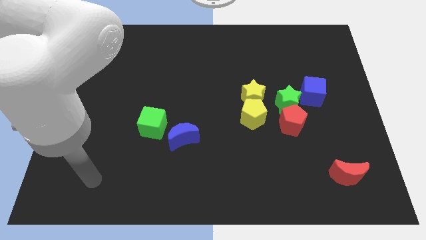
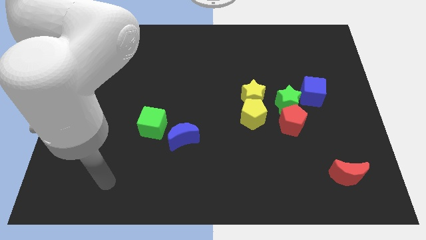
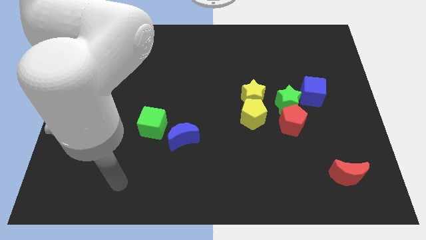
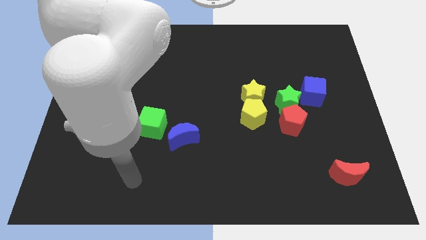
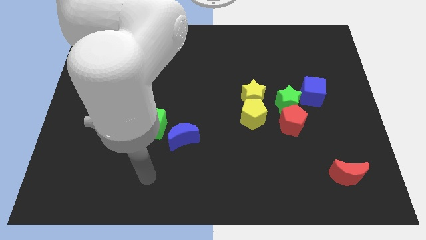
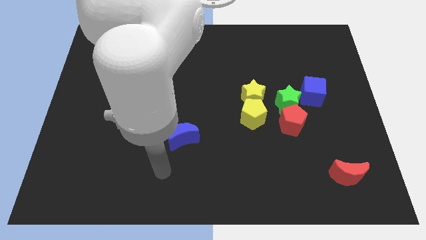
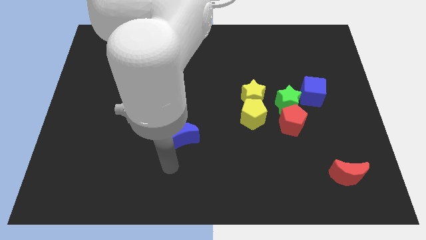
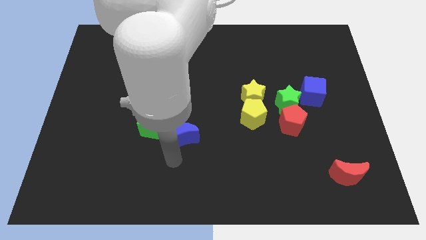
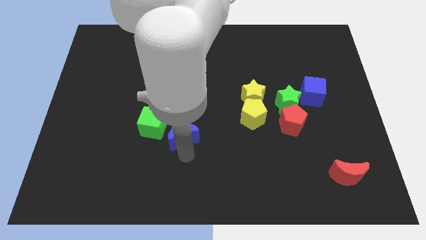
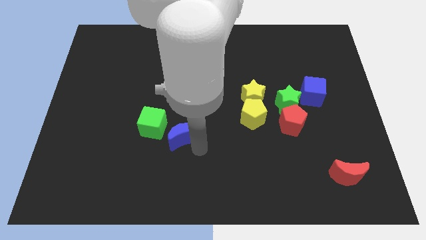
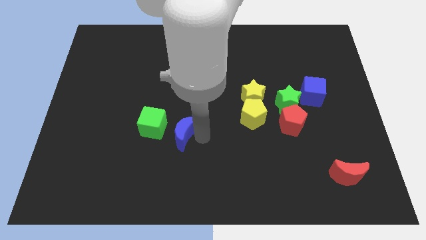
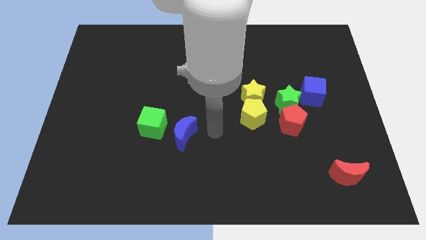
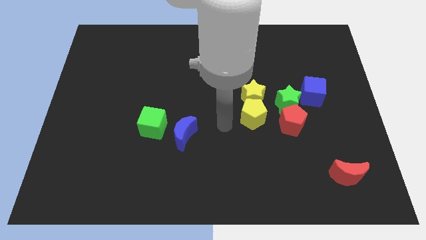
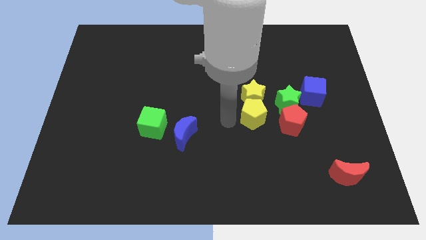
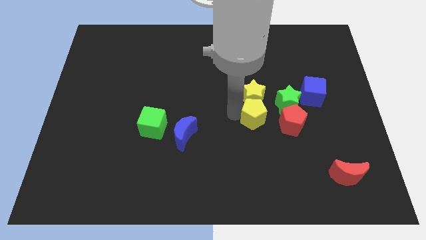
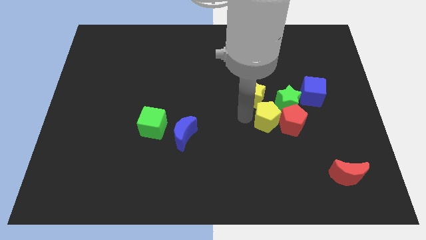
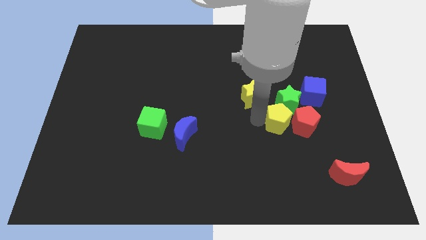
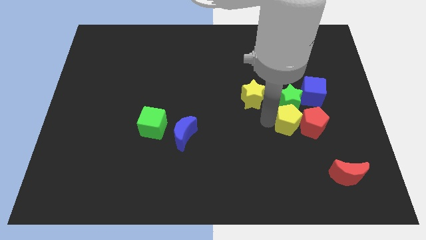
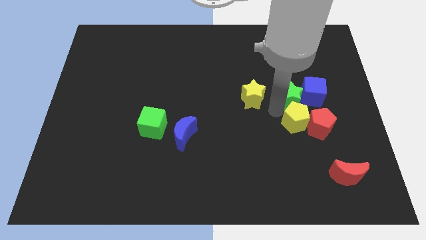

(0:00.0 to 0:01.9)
move the yellow star away from the yellow pentagon and green star

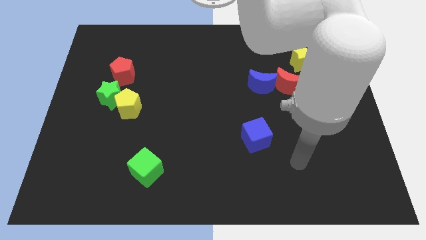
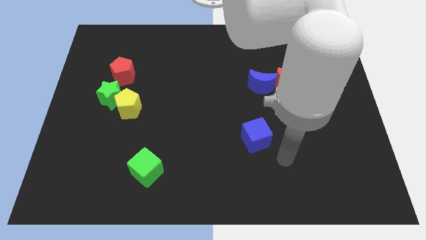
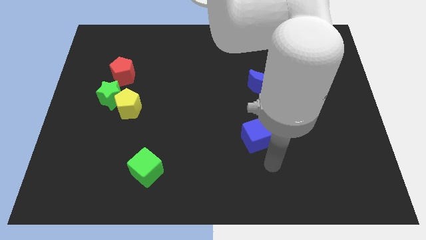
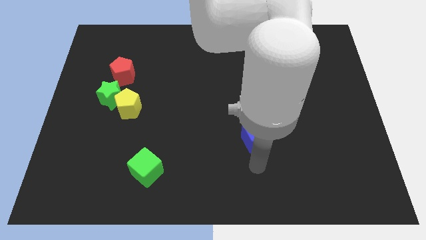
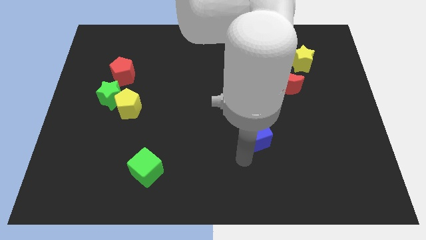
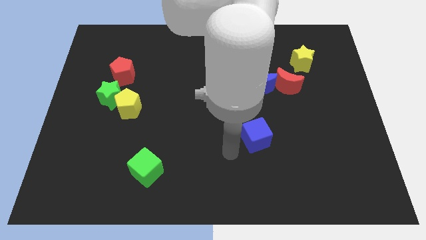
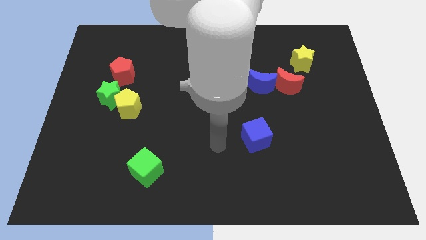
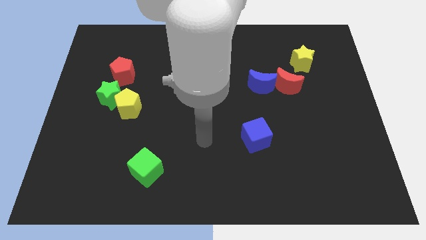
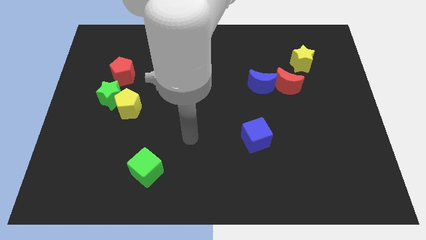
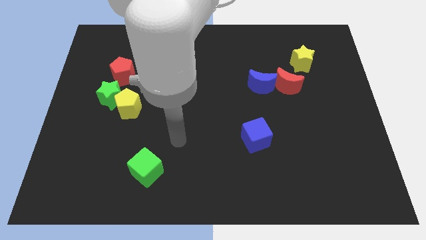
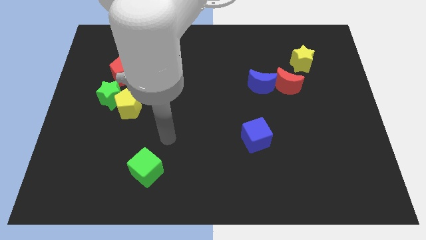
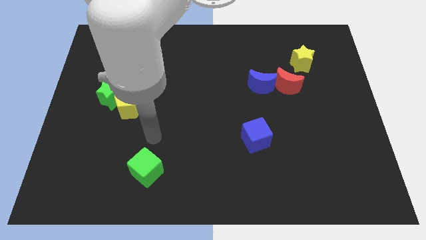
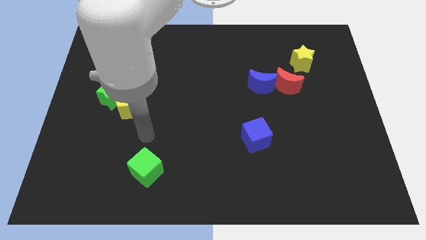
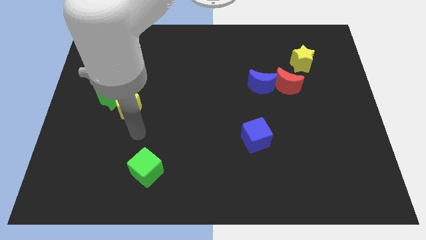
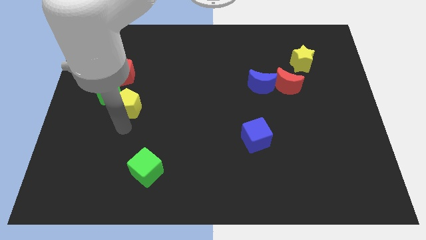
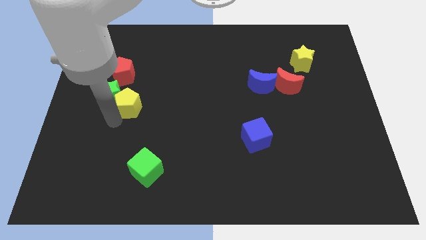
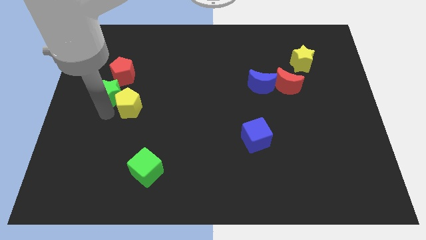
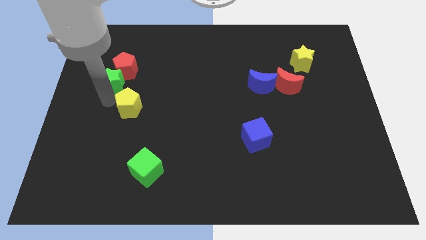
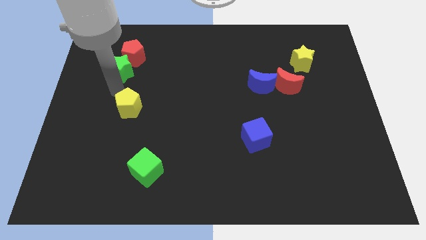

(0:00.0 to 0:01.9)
separate the yellow pentagon from the green star

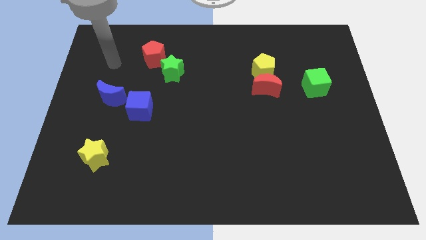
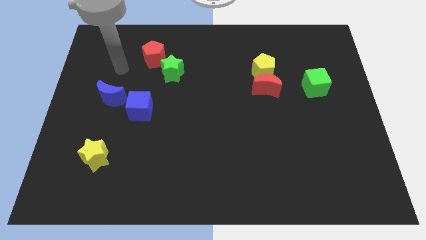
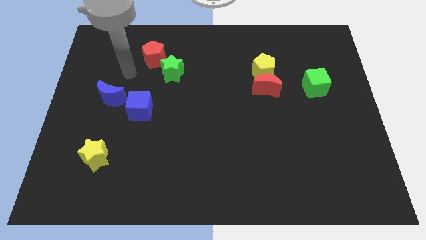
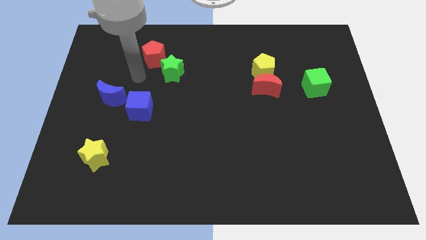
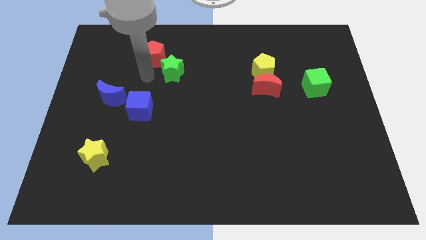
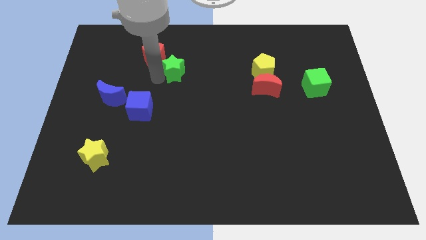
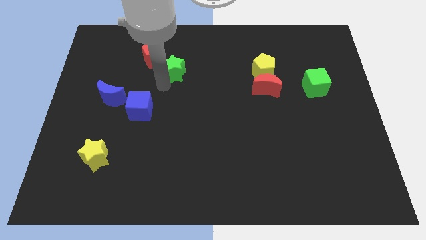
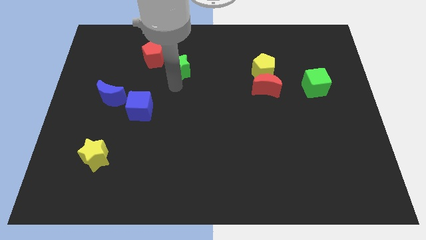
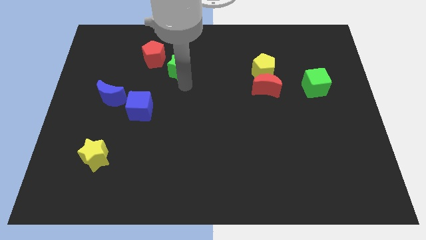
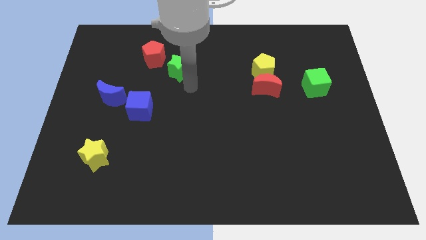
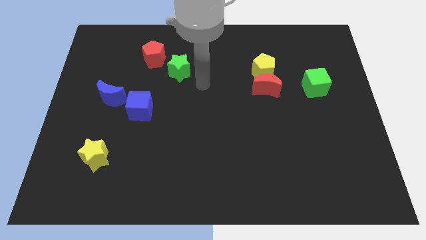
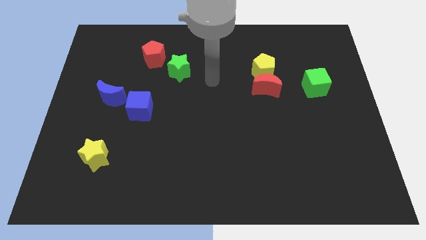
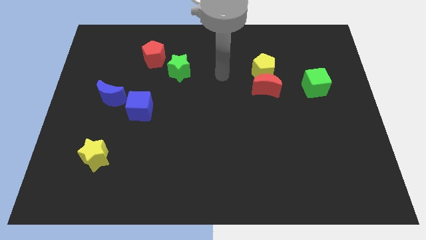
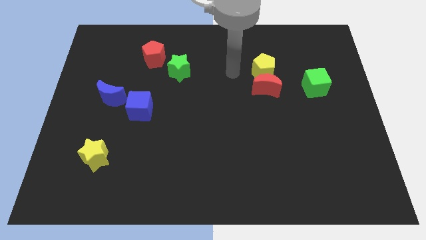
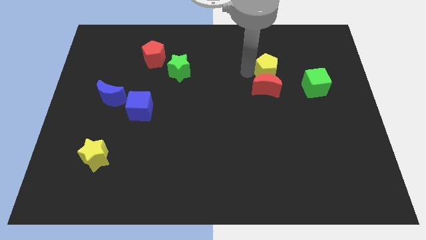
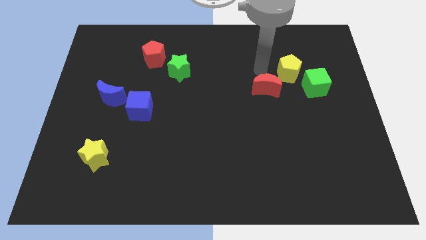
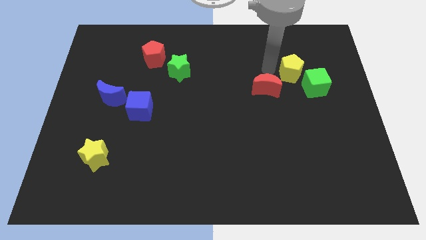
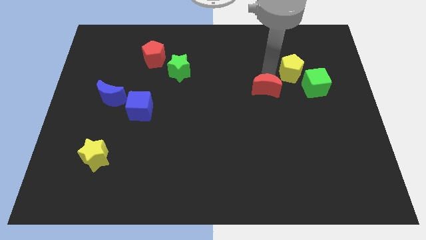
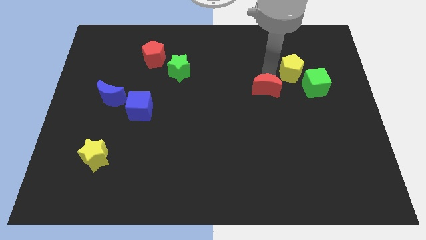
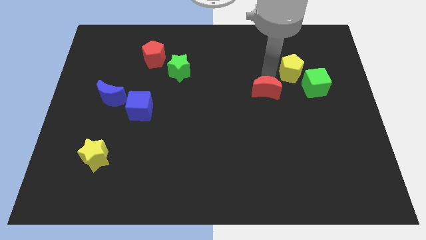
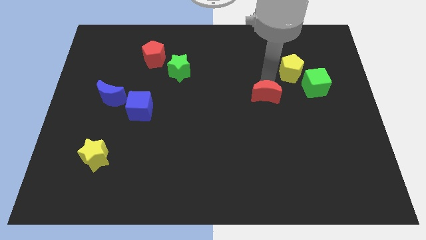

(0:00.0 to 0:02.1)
separate the red moon from the yellow pentagon

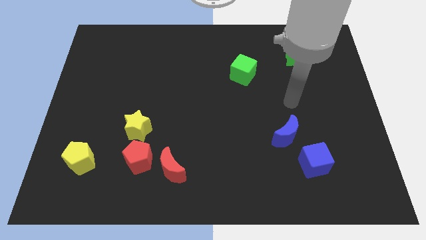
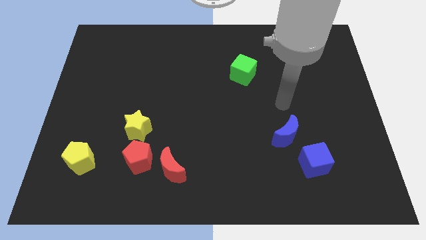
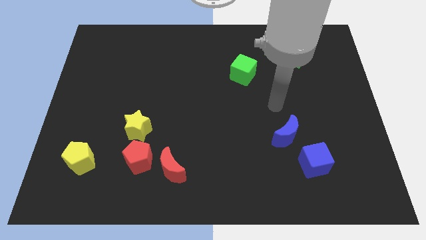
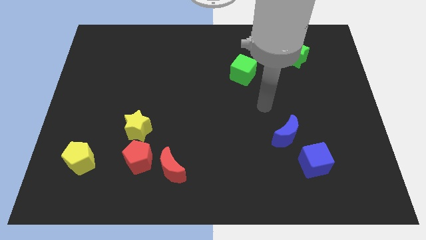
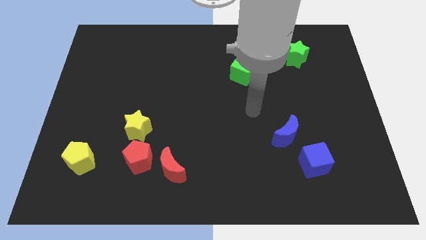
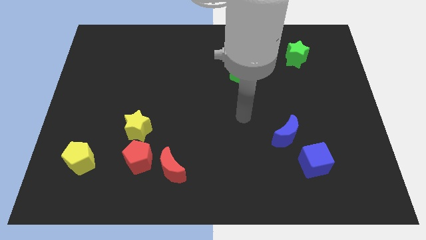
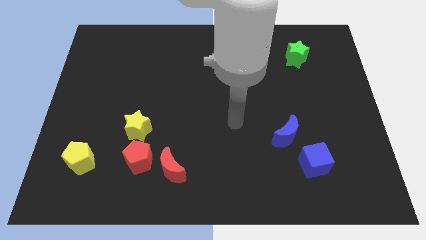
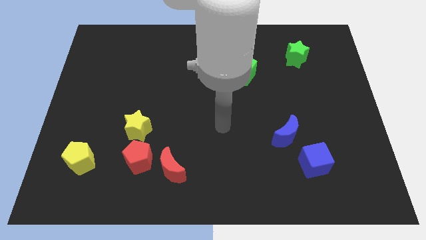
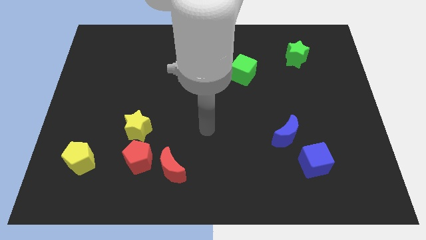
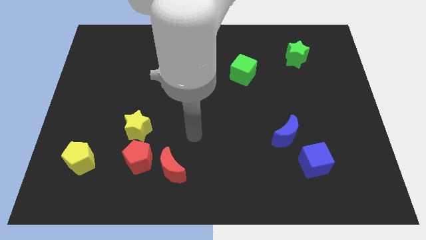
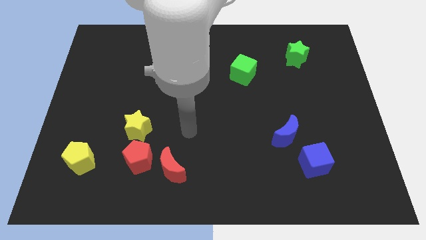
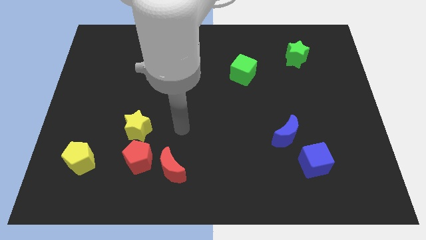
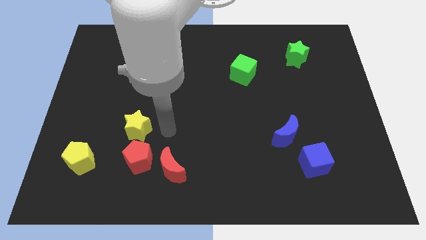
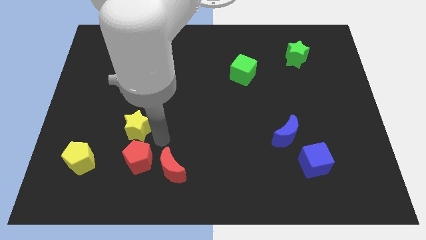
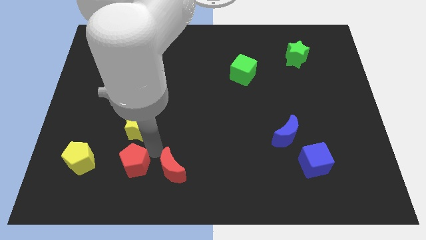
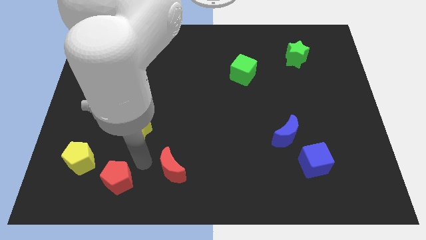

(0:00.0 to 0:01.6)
move the red moon away from the red pentagon

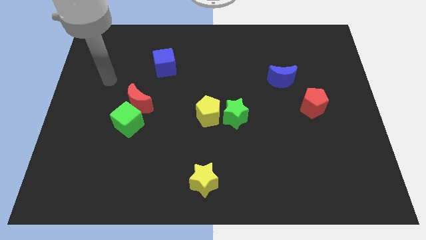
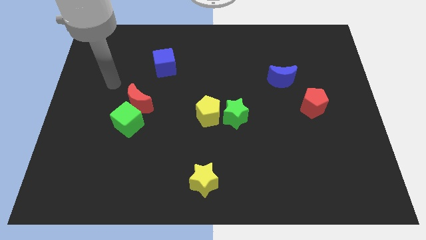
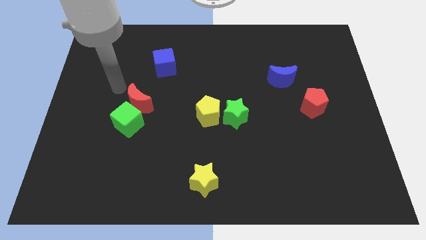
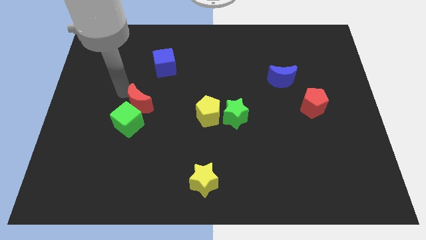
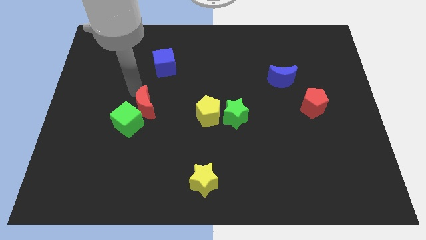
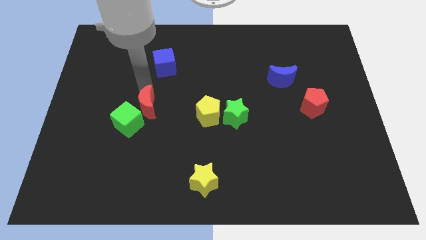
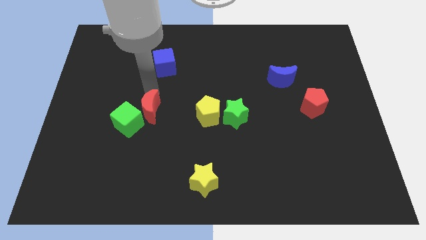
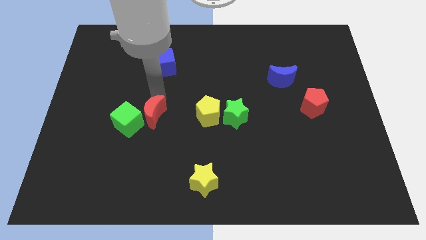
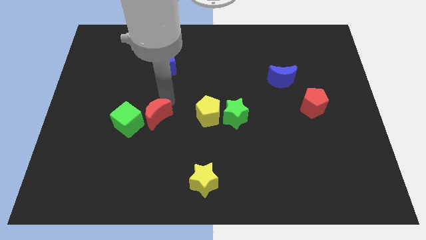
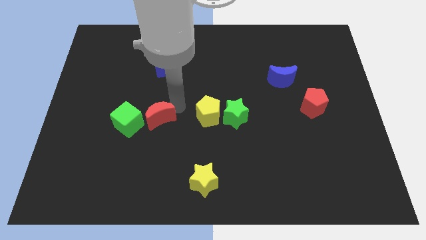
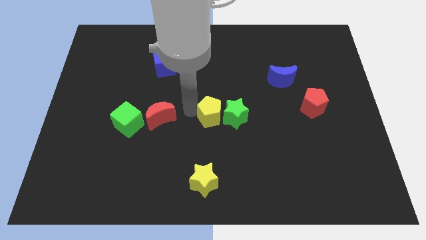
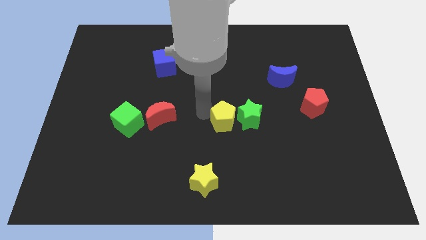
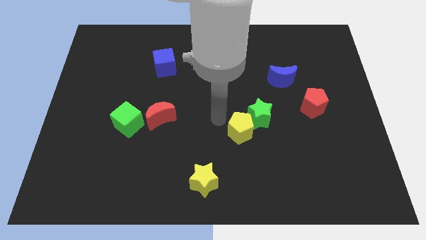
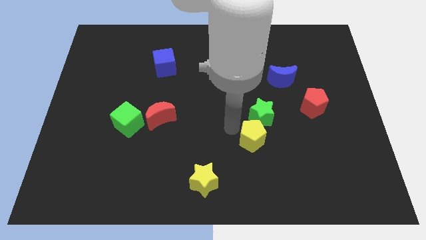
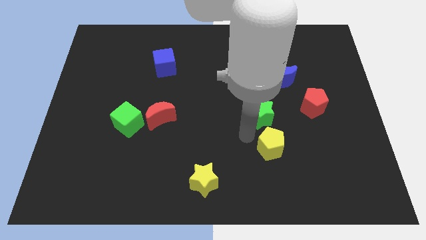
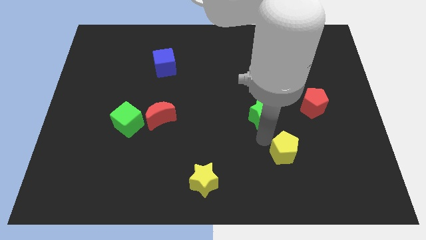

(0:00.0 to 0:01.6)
separate the green star from the yellow pentagon
